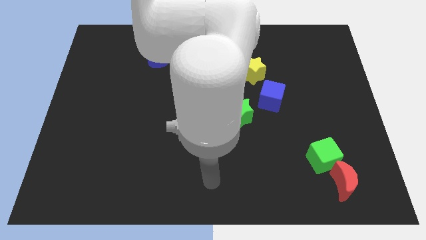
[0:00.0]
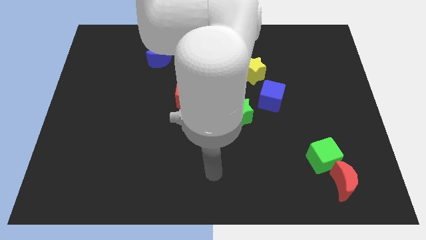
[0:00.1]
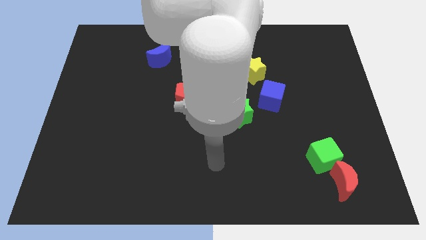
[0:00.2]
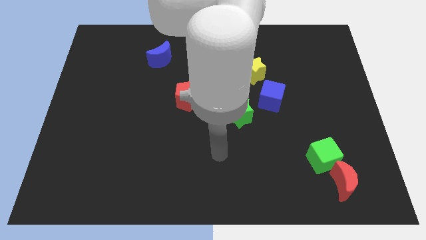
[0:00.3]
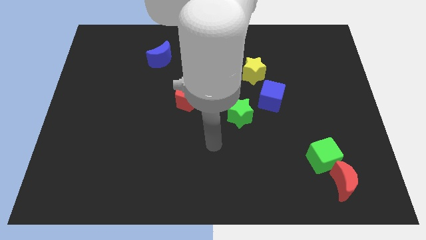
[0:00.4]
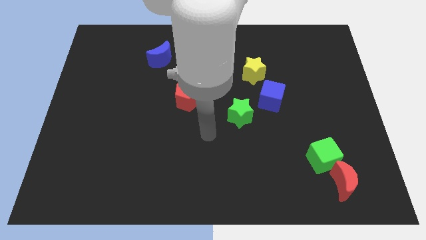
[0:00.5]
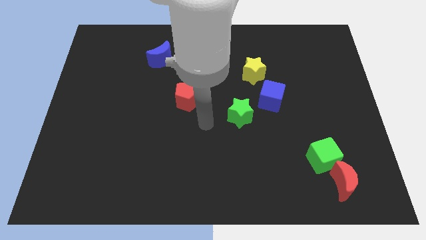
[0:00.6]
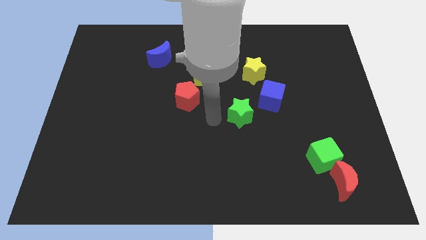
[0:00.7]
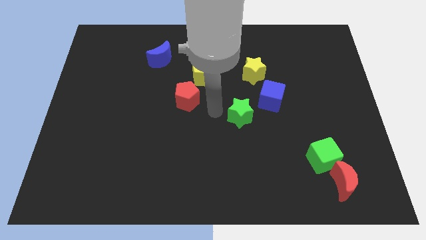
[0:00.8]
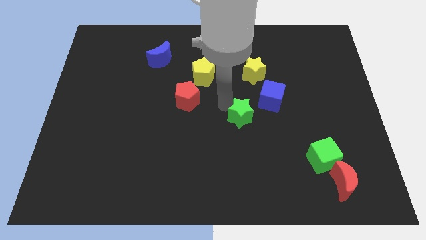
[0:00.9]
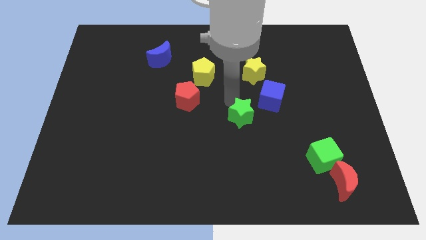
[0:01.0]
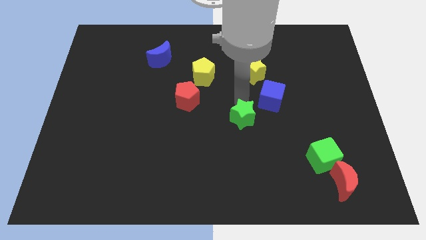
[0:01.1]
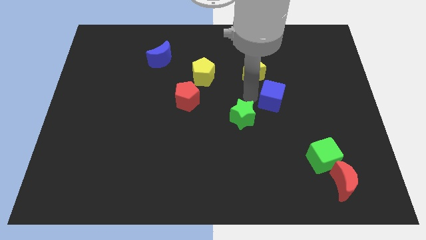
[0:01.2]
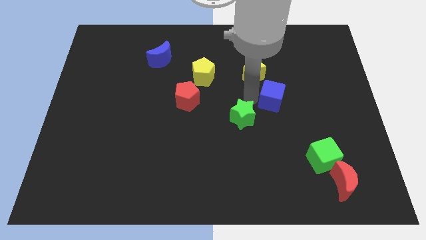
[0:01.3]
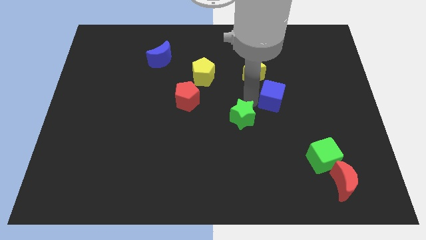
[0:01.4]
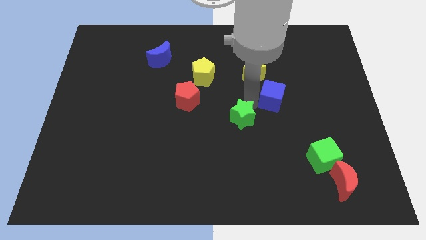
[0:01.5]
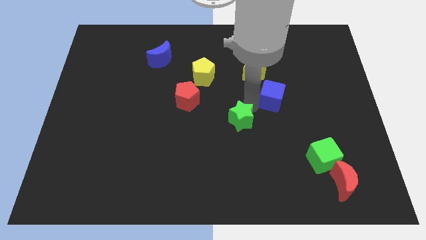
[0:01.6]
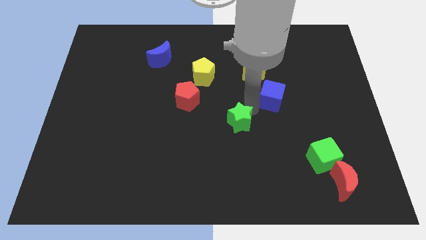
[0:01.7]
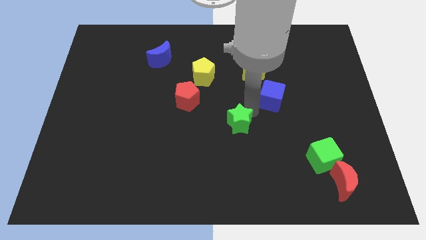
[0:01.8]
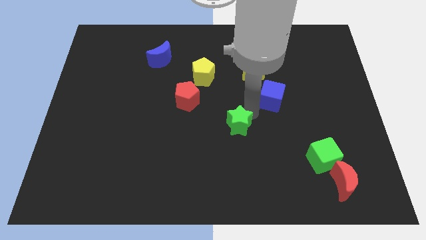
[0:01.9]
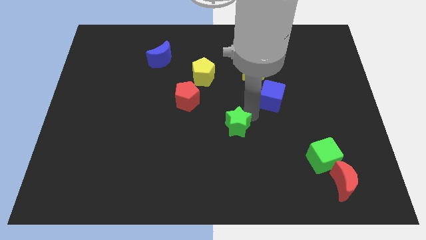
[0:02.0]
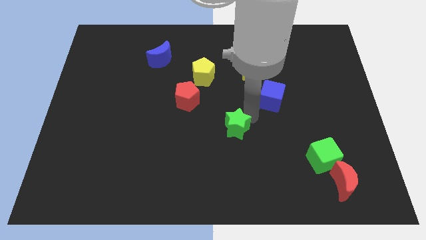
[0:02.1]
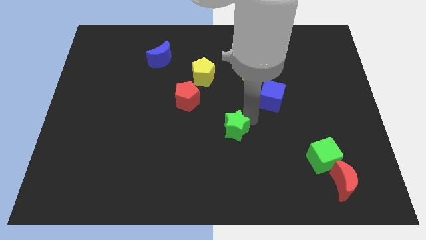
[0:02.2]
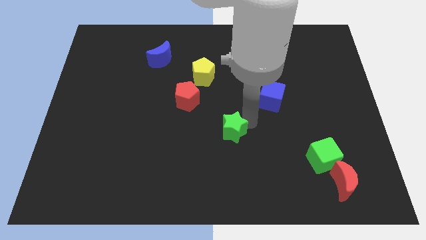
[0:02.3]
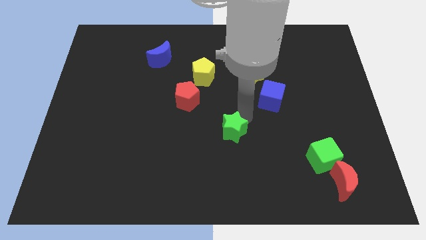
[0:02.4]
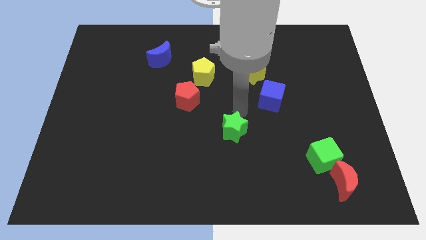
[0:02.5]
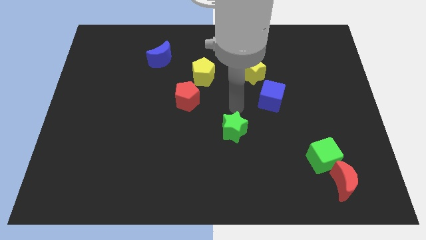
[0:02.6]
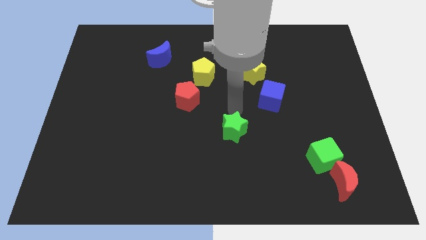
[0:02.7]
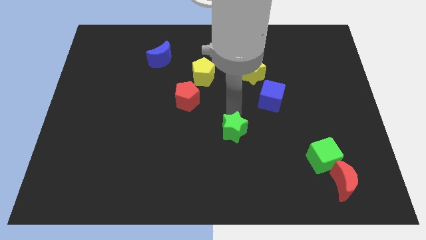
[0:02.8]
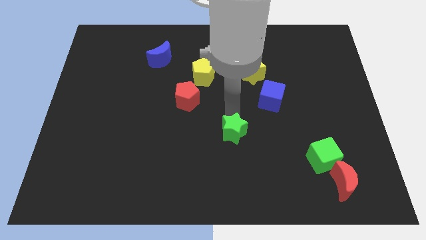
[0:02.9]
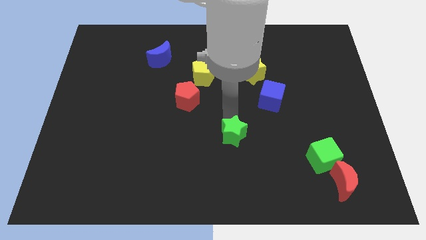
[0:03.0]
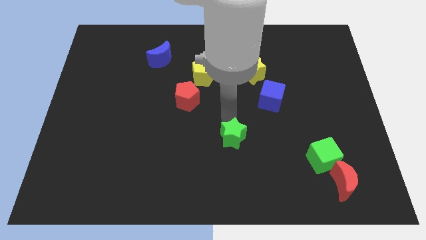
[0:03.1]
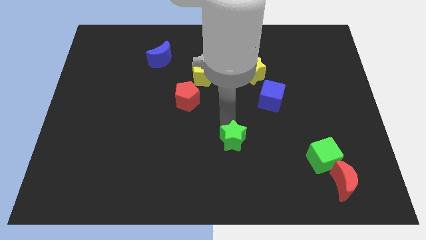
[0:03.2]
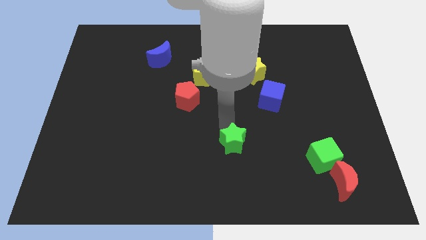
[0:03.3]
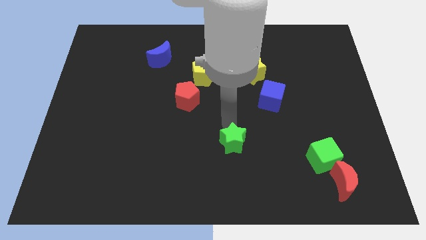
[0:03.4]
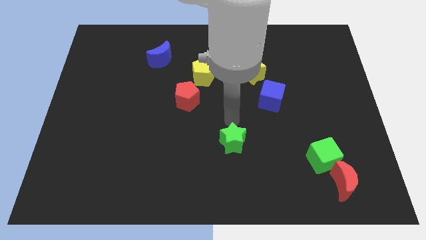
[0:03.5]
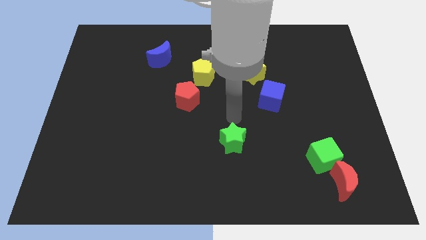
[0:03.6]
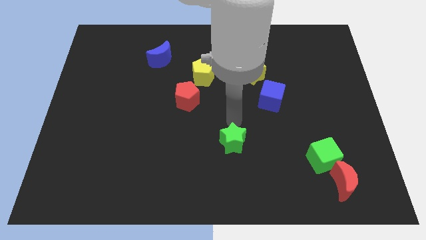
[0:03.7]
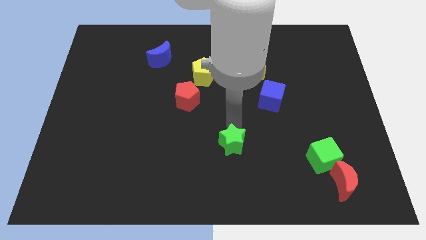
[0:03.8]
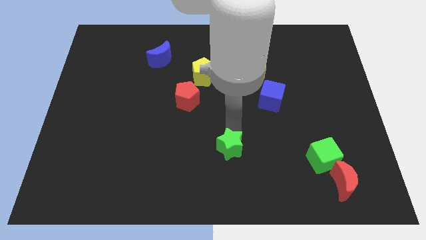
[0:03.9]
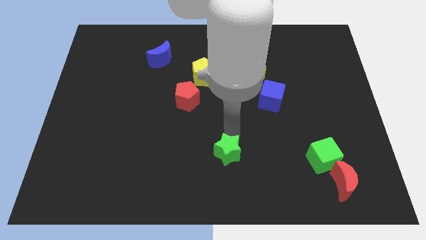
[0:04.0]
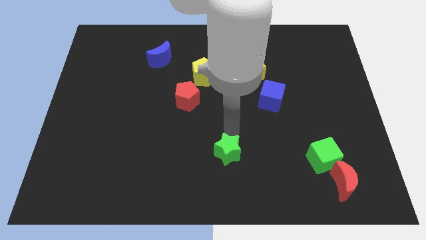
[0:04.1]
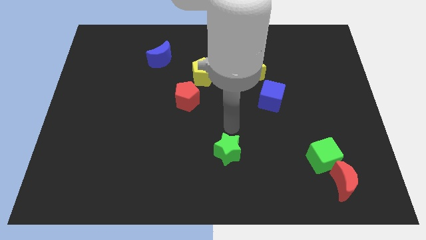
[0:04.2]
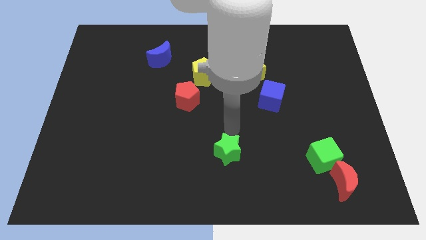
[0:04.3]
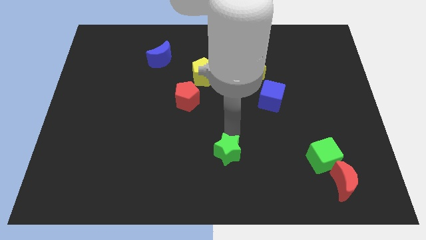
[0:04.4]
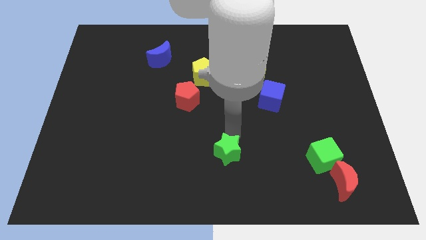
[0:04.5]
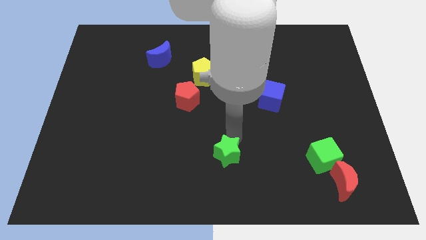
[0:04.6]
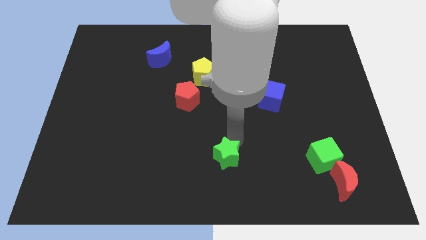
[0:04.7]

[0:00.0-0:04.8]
slide the green star to the bottom

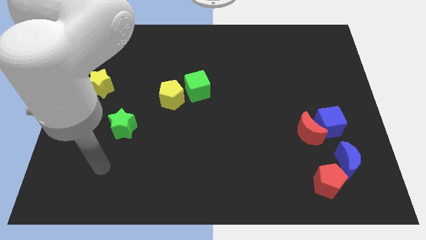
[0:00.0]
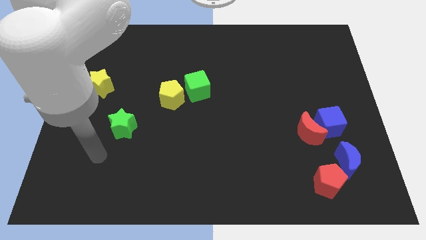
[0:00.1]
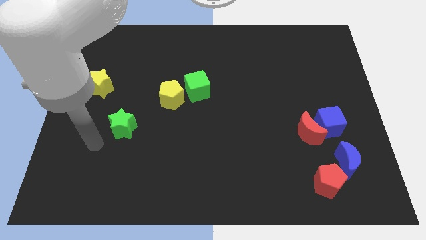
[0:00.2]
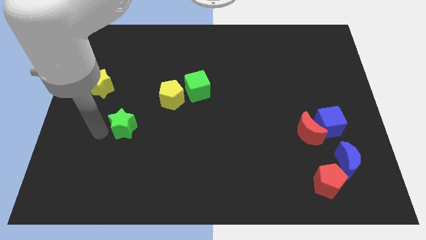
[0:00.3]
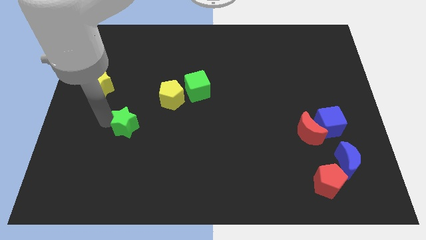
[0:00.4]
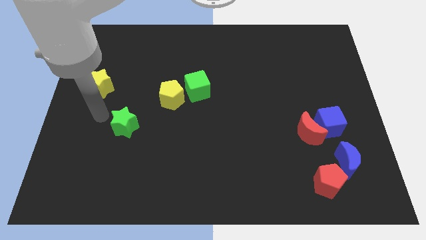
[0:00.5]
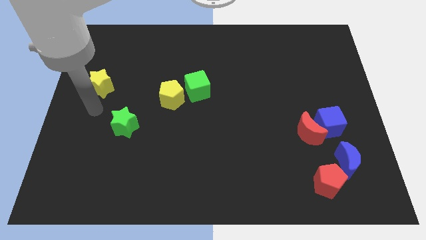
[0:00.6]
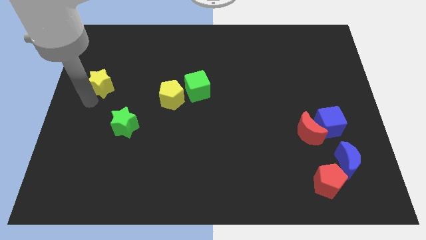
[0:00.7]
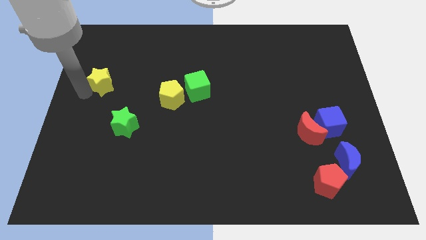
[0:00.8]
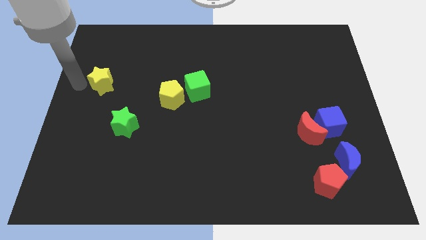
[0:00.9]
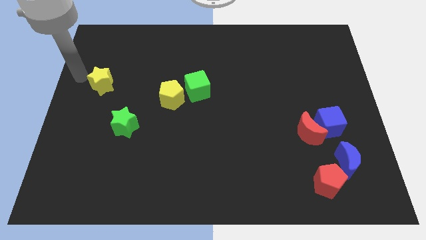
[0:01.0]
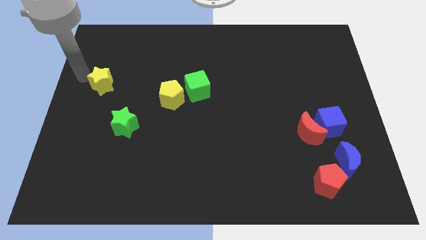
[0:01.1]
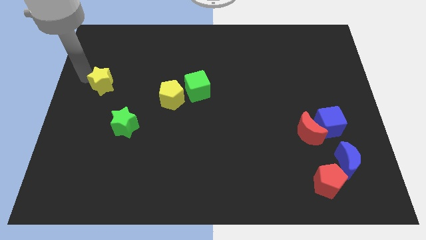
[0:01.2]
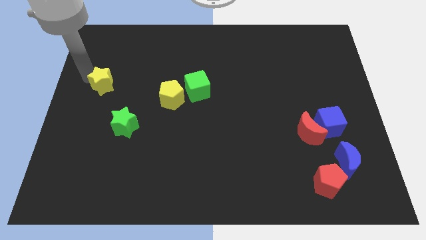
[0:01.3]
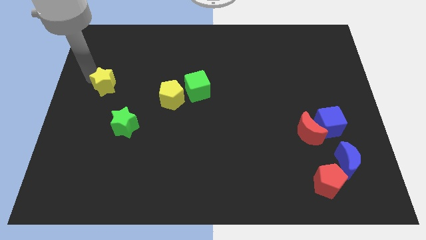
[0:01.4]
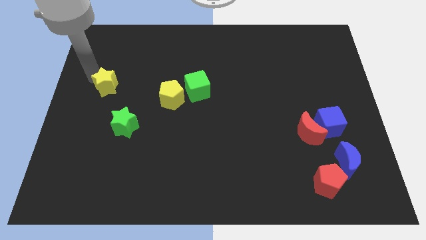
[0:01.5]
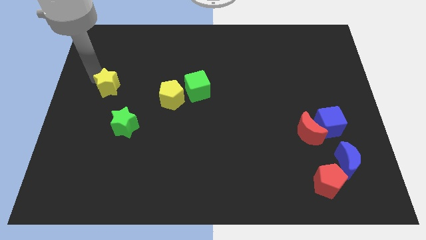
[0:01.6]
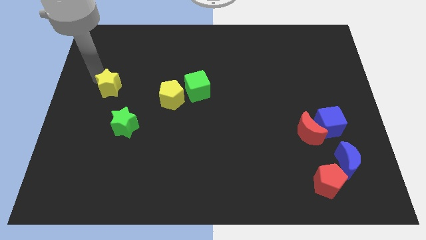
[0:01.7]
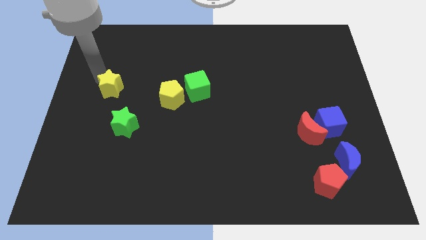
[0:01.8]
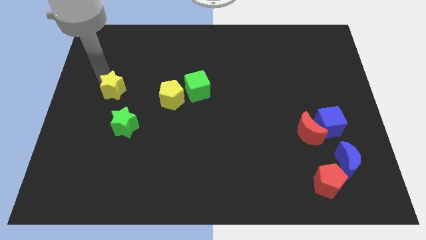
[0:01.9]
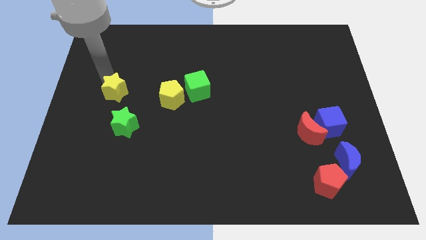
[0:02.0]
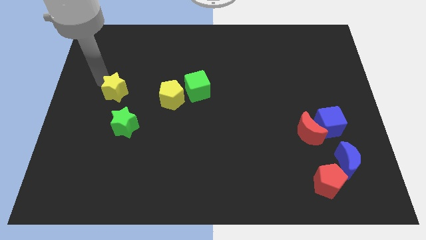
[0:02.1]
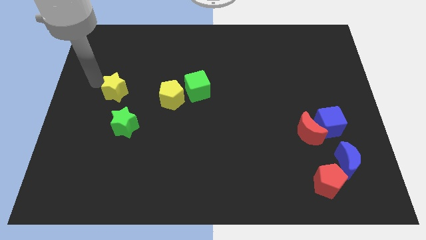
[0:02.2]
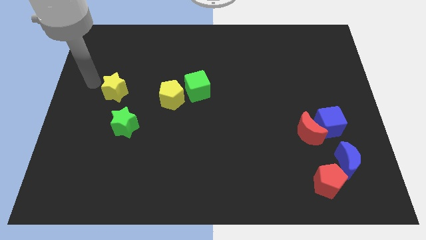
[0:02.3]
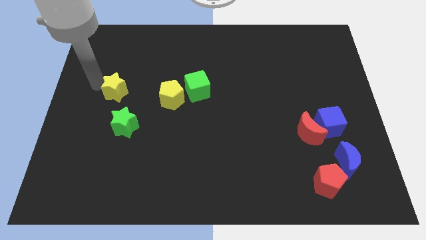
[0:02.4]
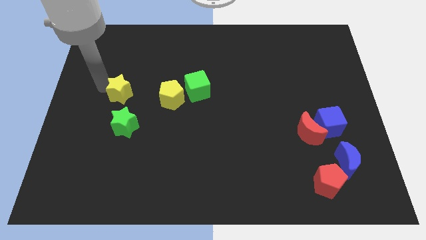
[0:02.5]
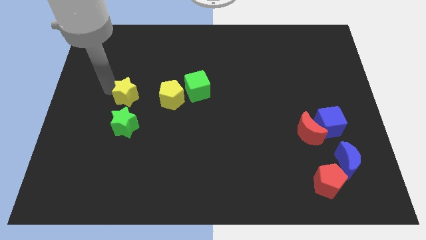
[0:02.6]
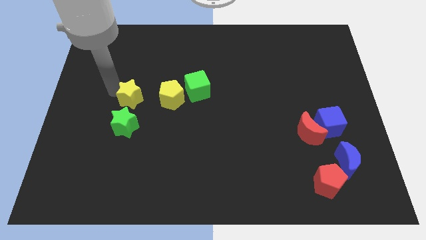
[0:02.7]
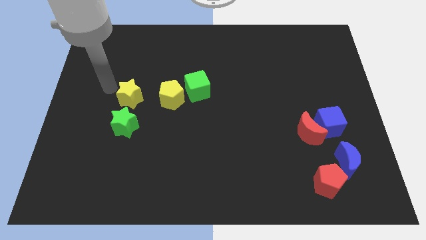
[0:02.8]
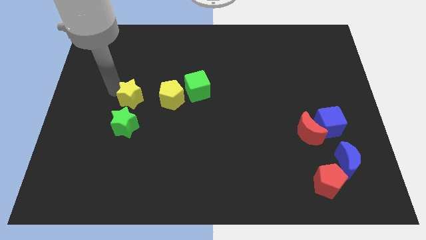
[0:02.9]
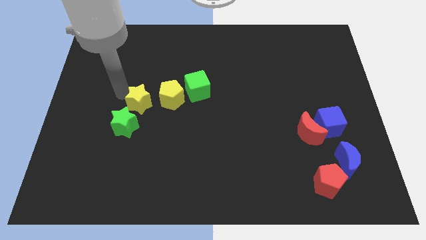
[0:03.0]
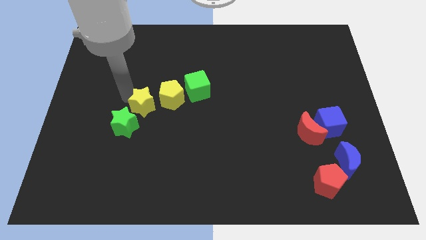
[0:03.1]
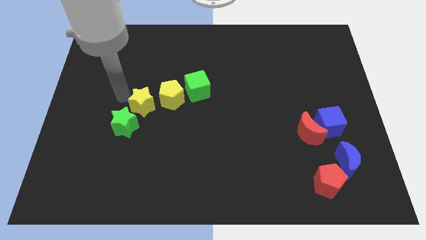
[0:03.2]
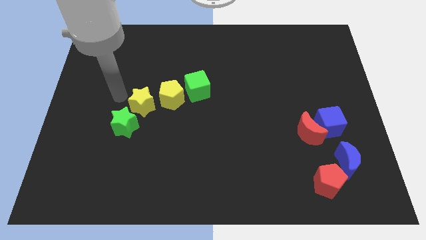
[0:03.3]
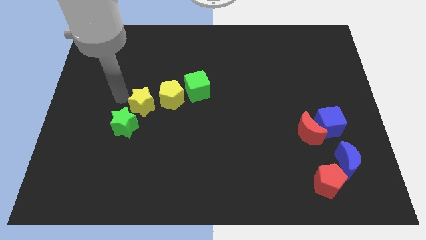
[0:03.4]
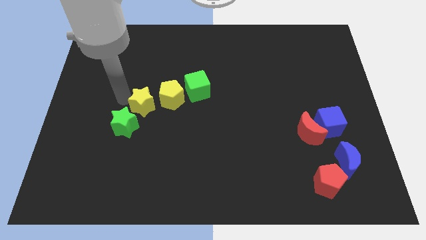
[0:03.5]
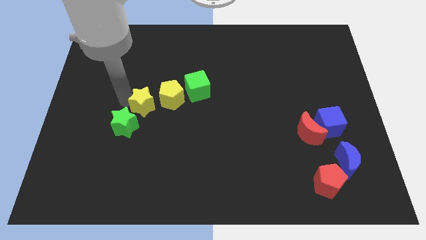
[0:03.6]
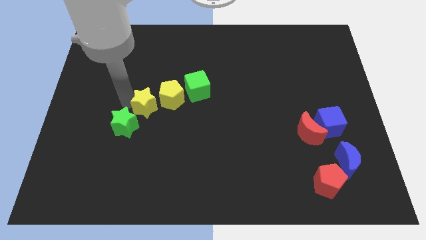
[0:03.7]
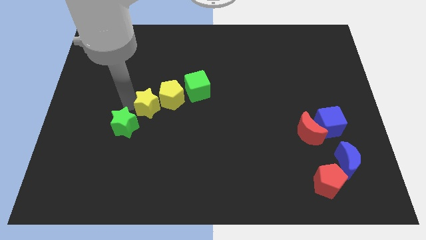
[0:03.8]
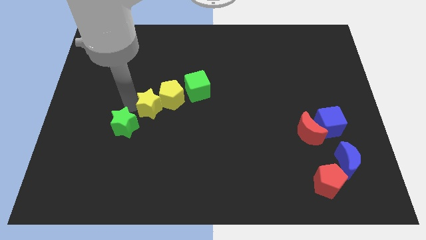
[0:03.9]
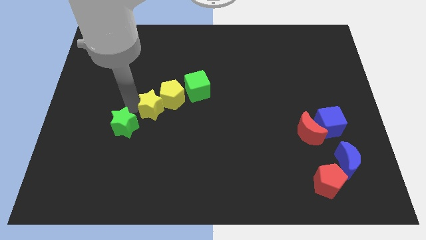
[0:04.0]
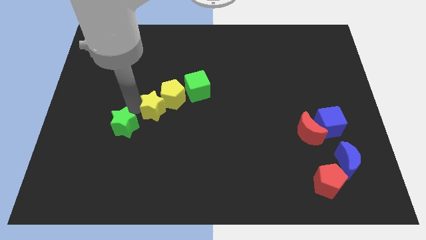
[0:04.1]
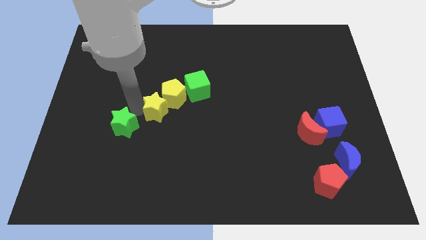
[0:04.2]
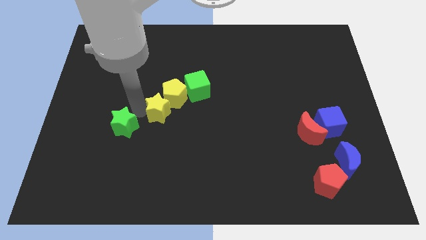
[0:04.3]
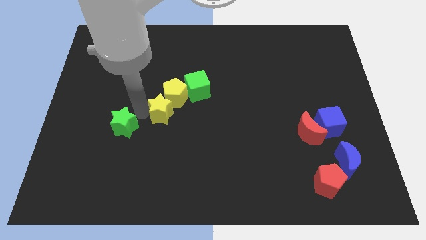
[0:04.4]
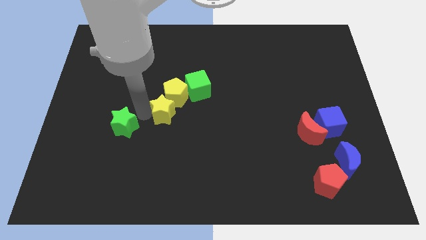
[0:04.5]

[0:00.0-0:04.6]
slide the yellow star to the center
